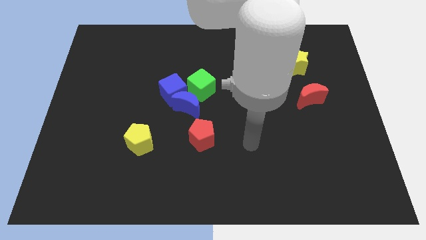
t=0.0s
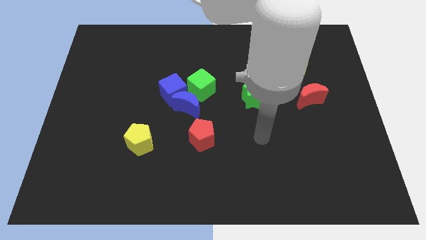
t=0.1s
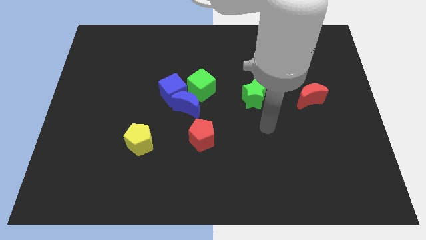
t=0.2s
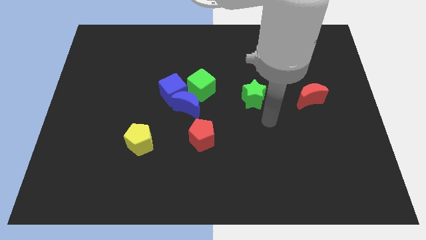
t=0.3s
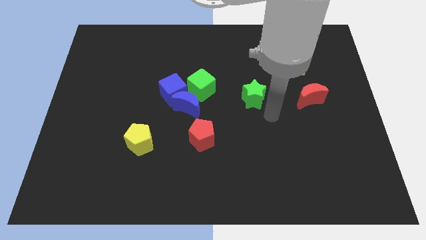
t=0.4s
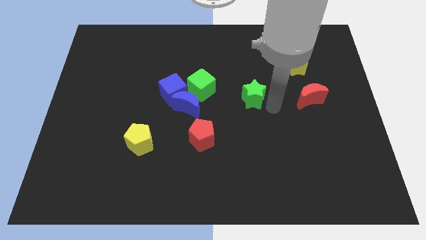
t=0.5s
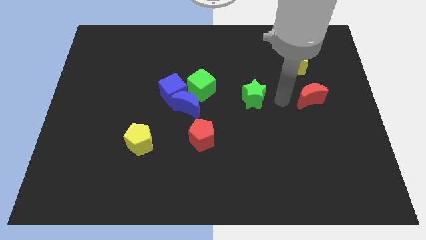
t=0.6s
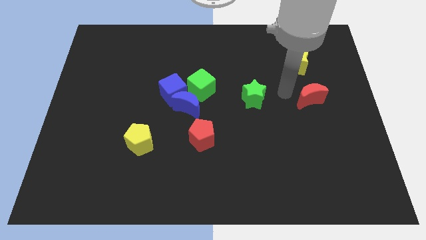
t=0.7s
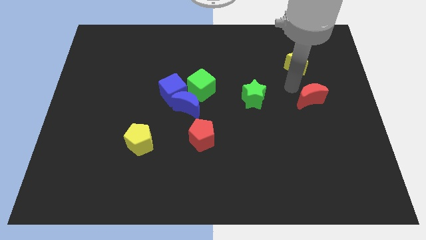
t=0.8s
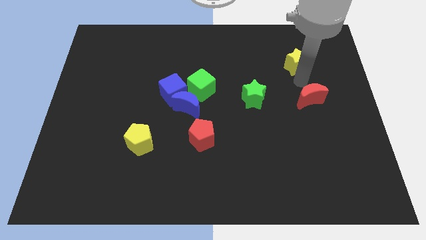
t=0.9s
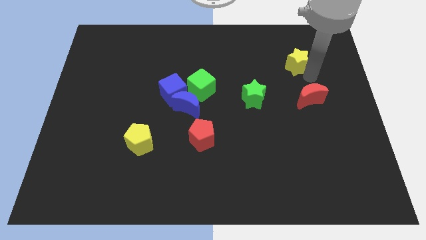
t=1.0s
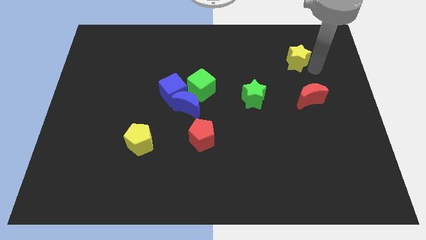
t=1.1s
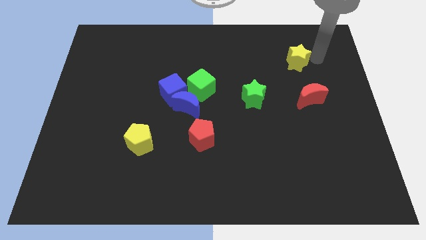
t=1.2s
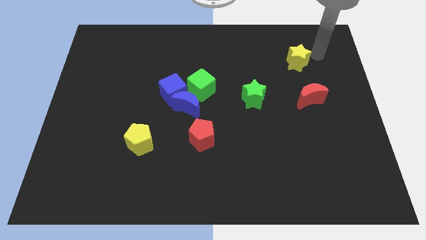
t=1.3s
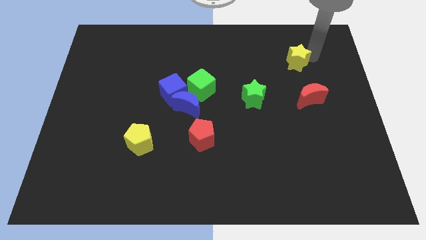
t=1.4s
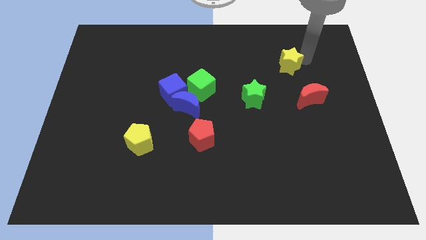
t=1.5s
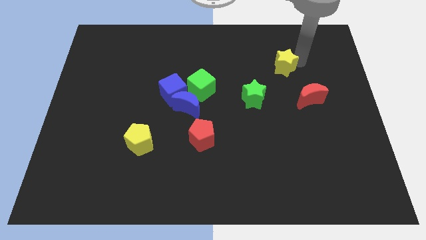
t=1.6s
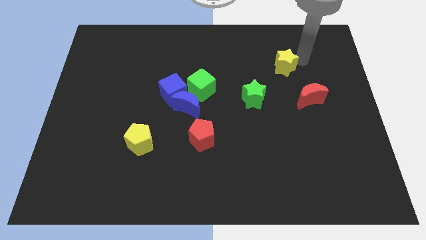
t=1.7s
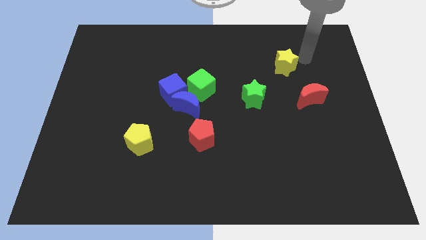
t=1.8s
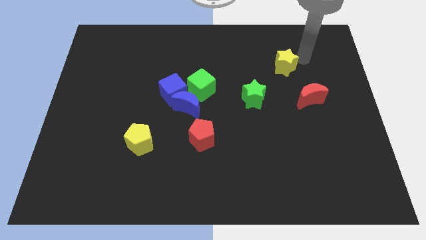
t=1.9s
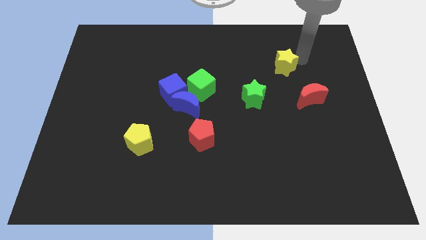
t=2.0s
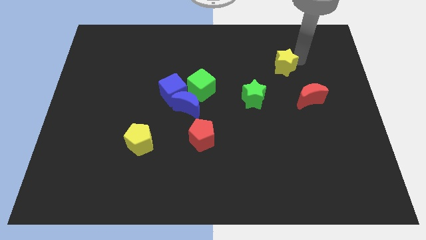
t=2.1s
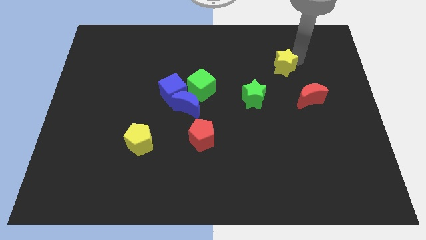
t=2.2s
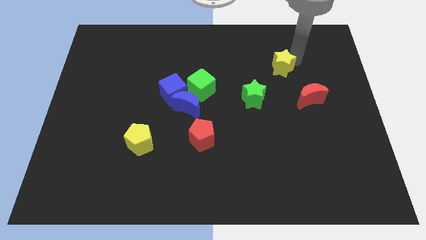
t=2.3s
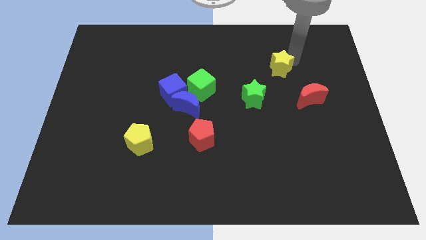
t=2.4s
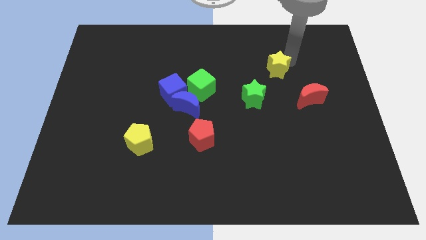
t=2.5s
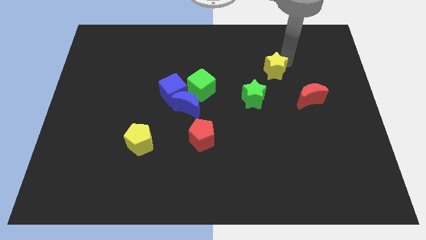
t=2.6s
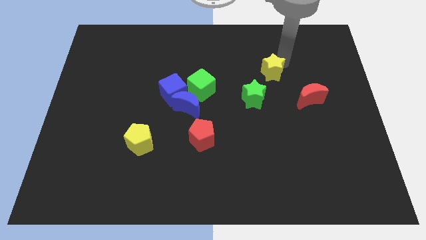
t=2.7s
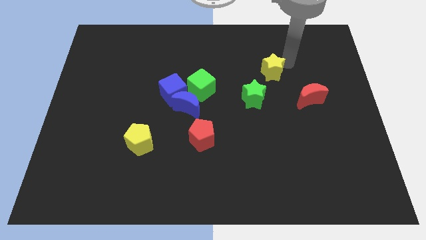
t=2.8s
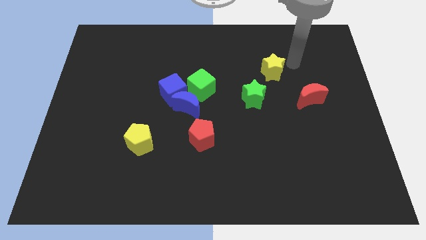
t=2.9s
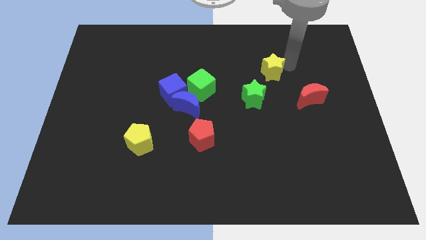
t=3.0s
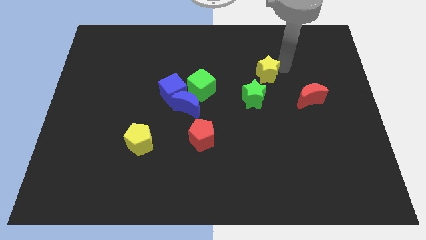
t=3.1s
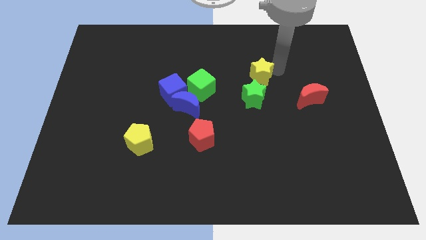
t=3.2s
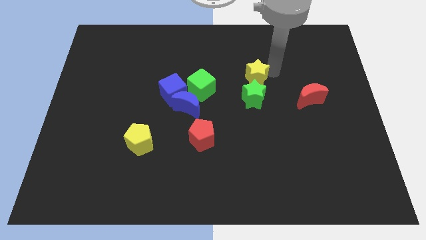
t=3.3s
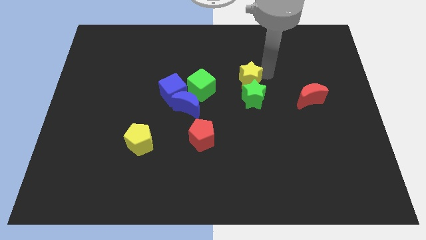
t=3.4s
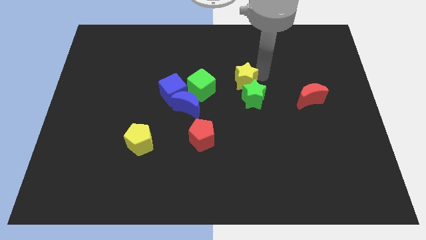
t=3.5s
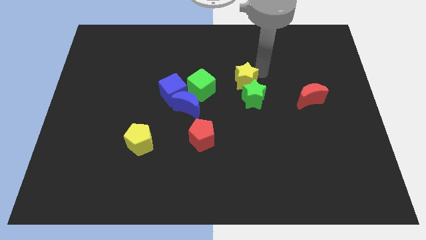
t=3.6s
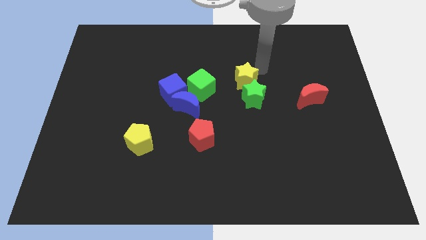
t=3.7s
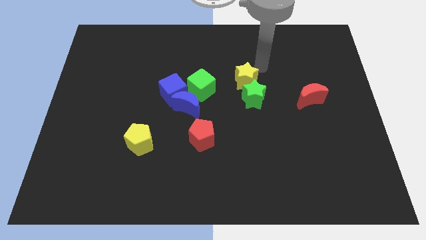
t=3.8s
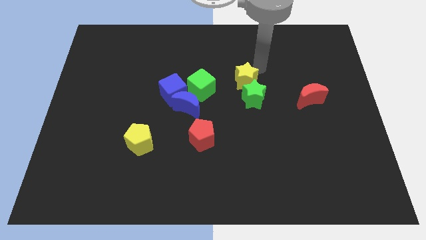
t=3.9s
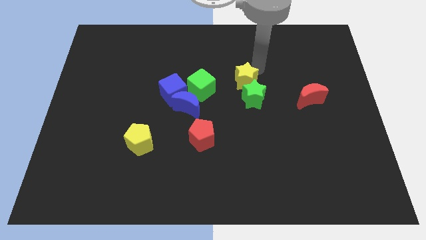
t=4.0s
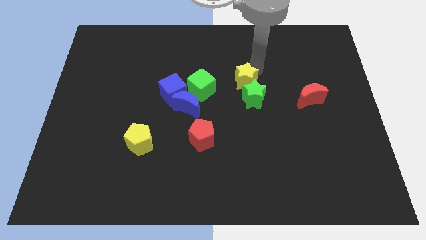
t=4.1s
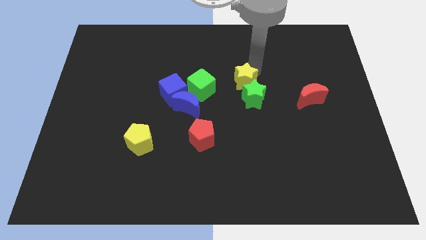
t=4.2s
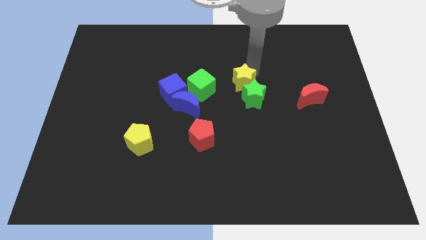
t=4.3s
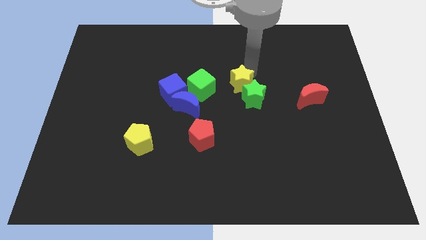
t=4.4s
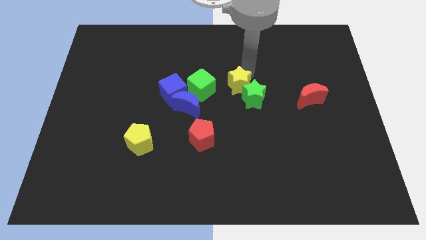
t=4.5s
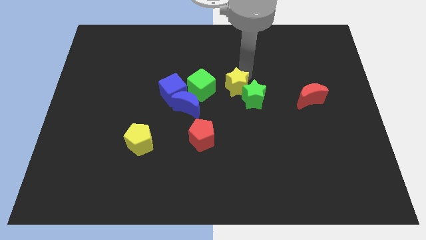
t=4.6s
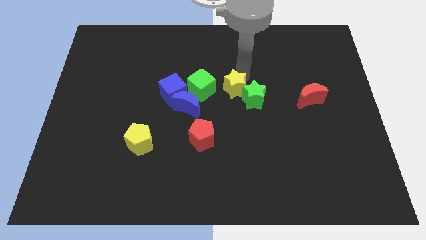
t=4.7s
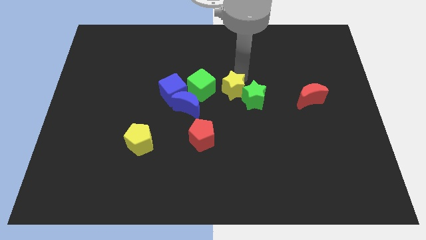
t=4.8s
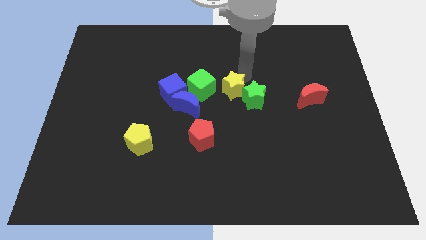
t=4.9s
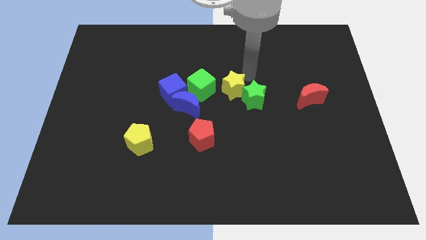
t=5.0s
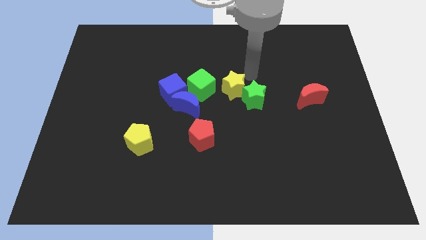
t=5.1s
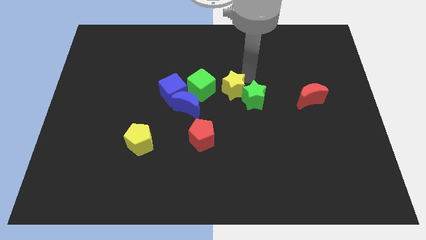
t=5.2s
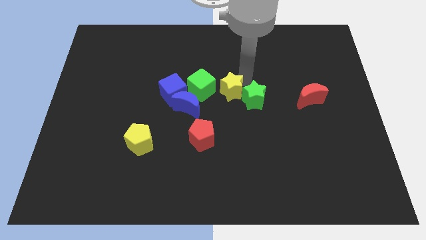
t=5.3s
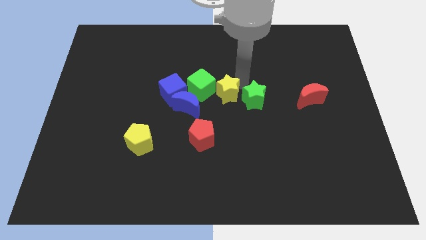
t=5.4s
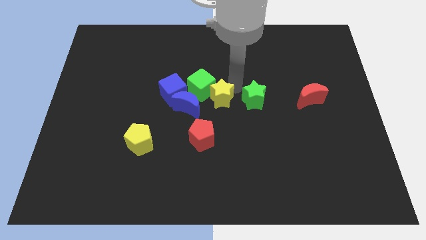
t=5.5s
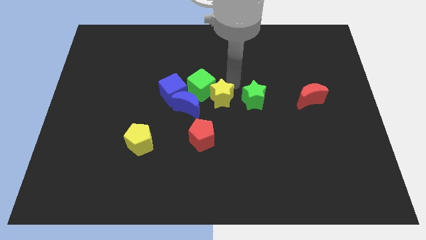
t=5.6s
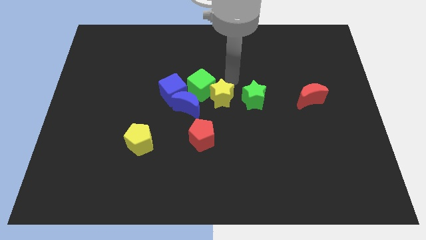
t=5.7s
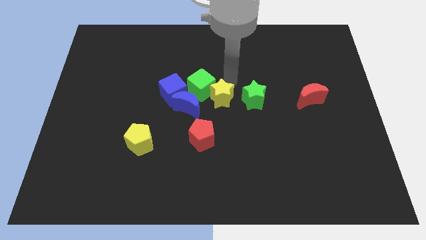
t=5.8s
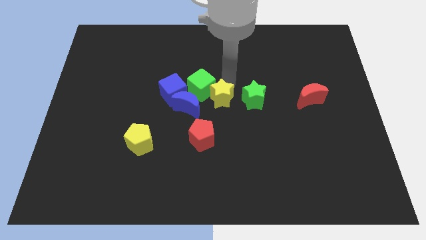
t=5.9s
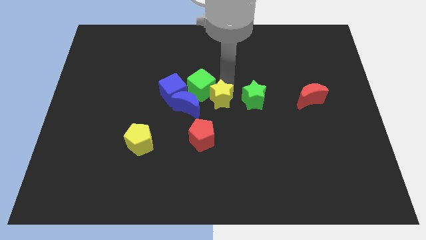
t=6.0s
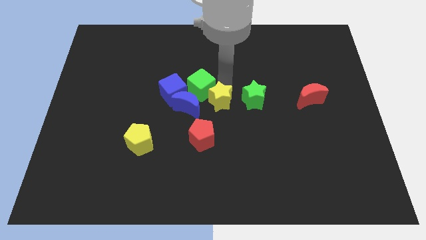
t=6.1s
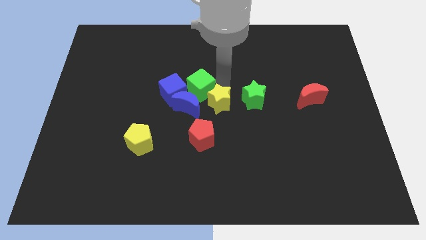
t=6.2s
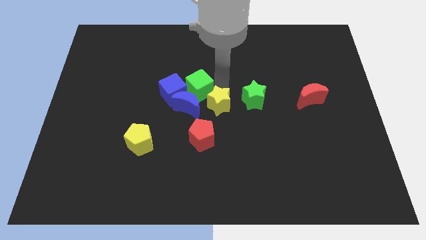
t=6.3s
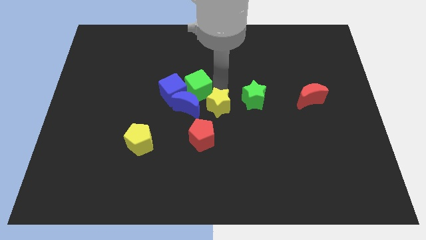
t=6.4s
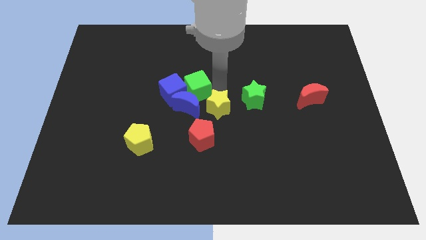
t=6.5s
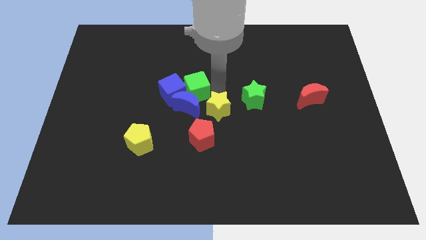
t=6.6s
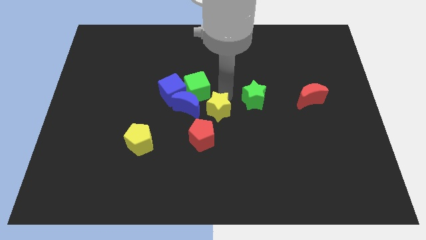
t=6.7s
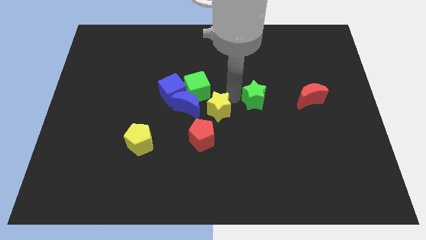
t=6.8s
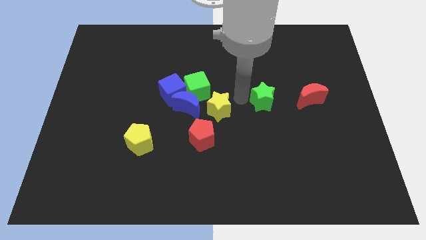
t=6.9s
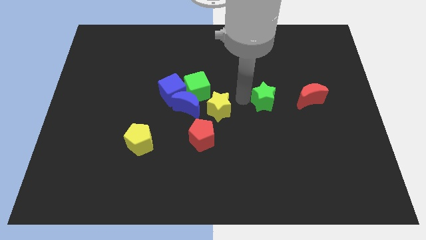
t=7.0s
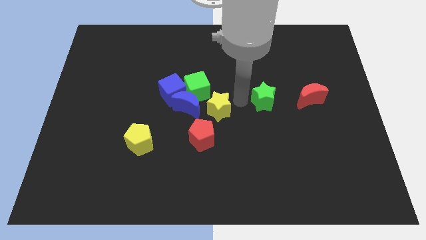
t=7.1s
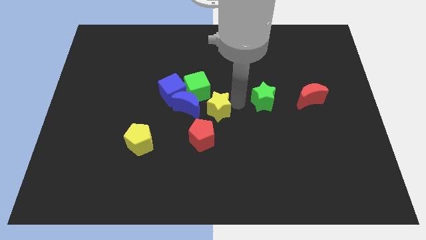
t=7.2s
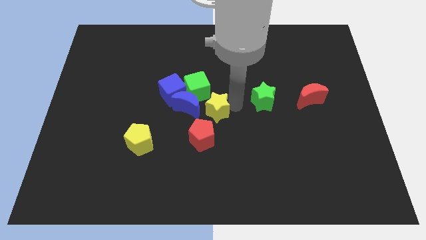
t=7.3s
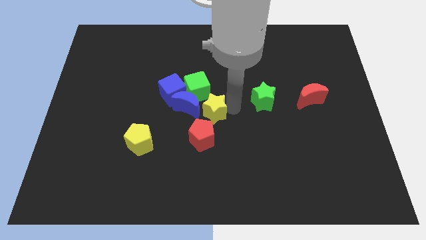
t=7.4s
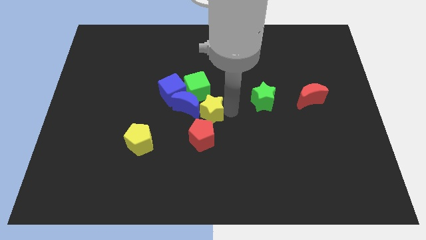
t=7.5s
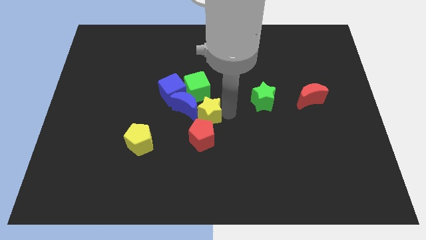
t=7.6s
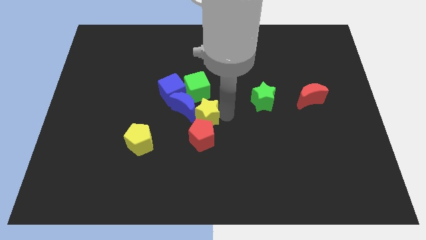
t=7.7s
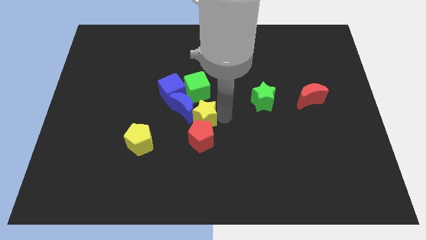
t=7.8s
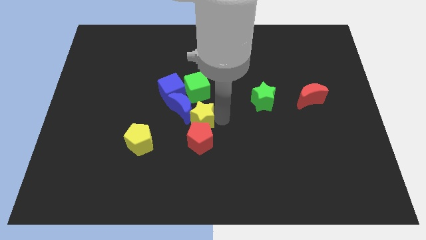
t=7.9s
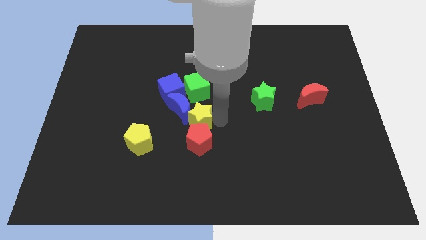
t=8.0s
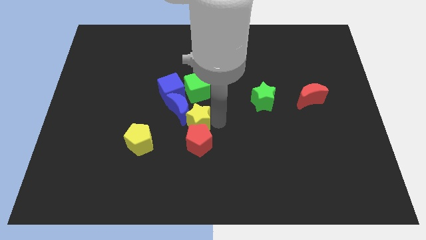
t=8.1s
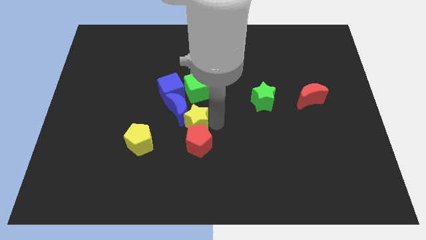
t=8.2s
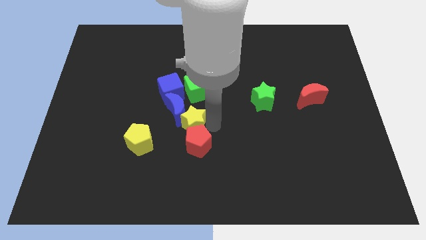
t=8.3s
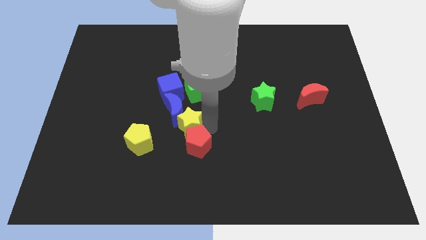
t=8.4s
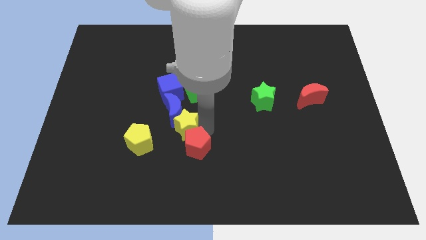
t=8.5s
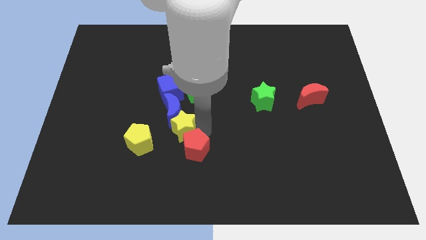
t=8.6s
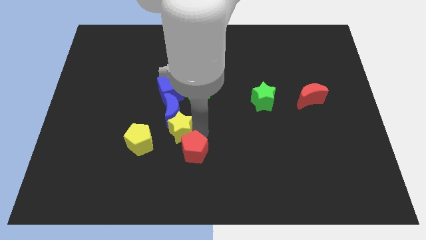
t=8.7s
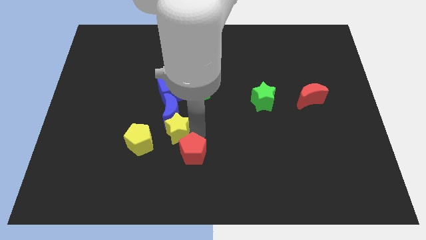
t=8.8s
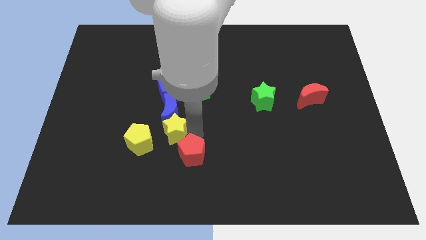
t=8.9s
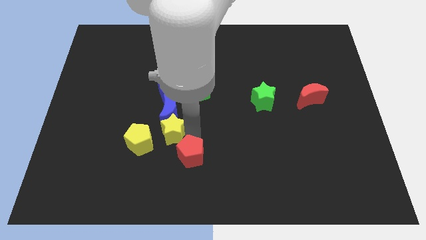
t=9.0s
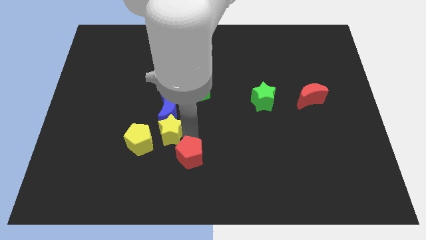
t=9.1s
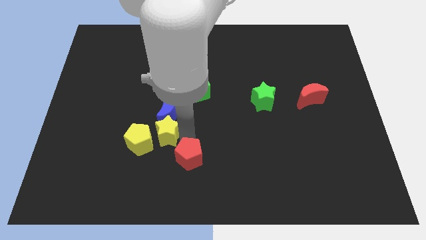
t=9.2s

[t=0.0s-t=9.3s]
slide the yellow star close to the yellow pentagon
